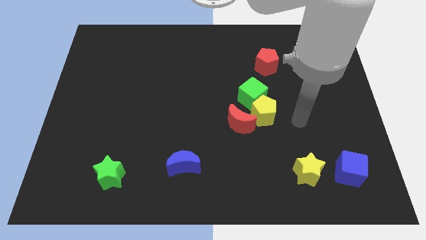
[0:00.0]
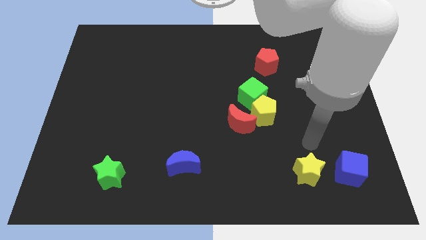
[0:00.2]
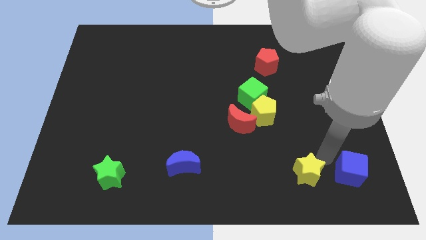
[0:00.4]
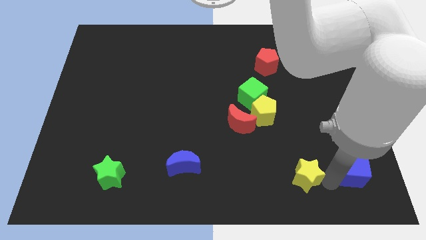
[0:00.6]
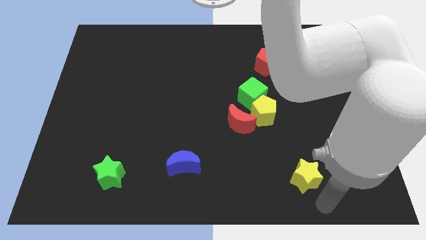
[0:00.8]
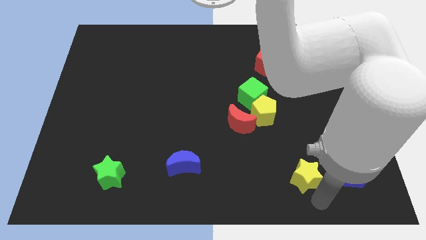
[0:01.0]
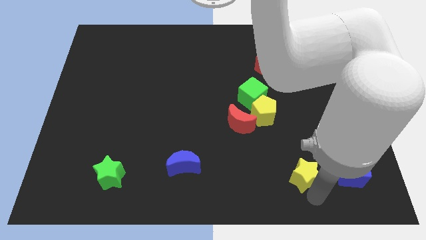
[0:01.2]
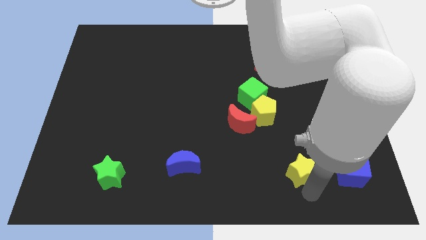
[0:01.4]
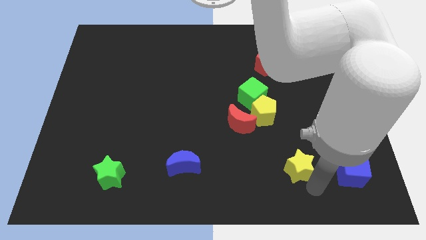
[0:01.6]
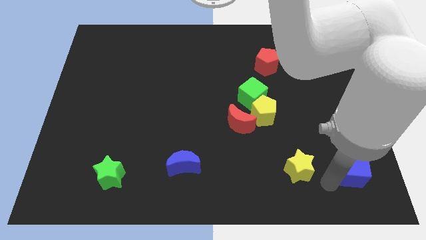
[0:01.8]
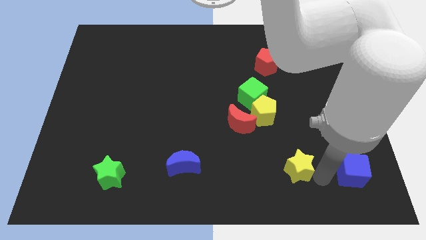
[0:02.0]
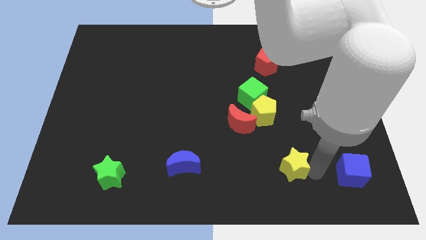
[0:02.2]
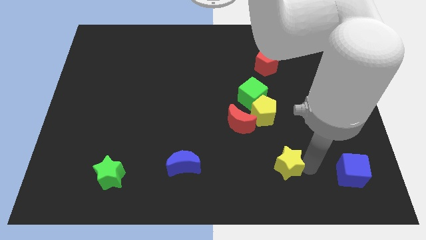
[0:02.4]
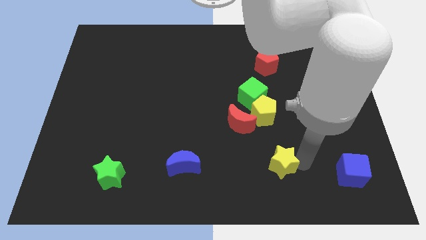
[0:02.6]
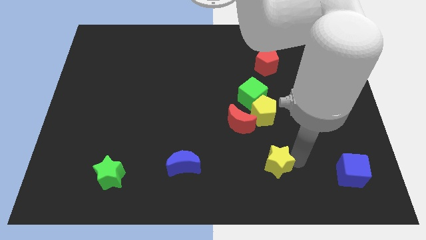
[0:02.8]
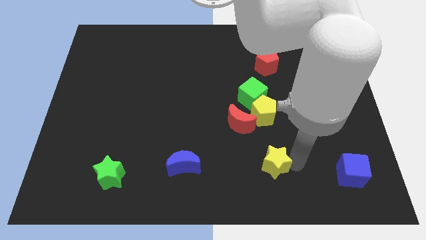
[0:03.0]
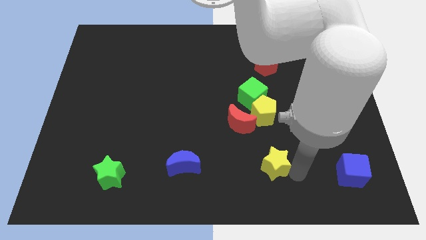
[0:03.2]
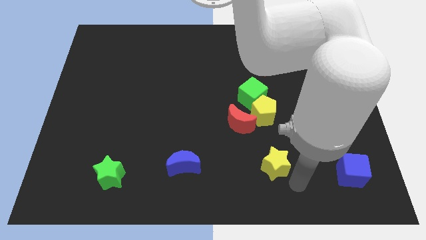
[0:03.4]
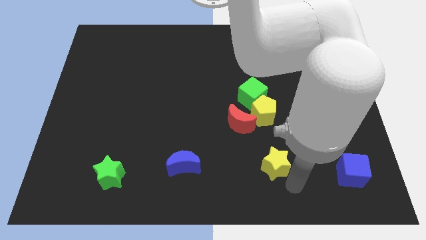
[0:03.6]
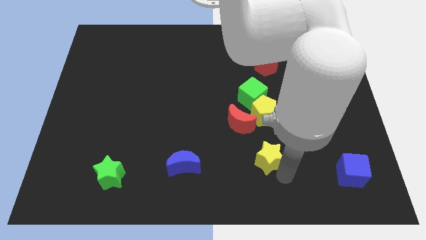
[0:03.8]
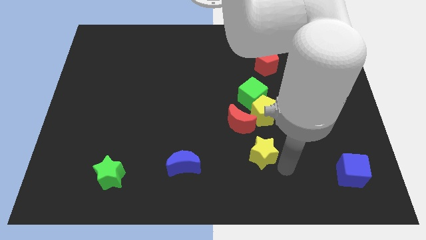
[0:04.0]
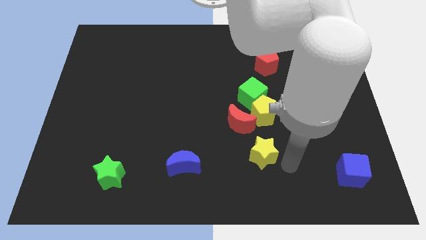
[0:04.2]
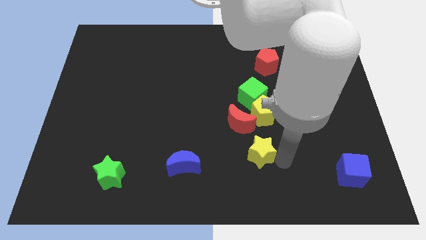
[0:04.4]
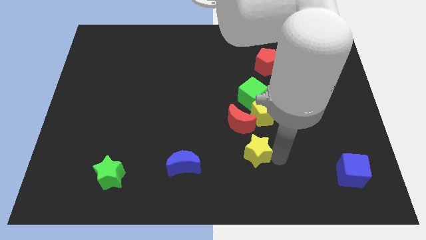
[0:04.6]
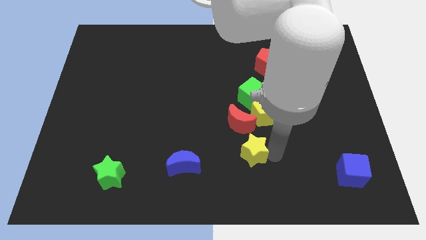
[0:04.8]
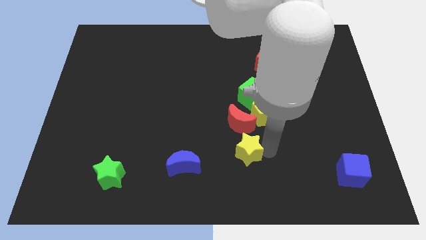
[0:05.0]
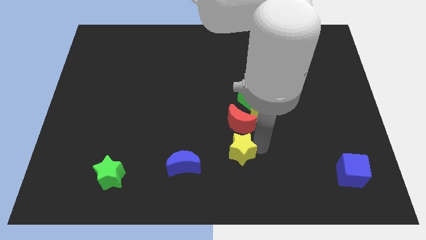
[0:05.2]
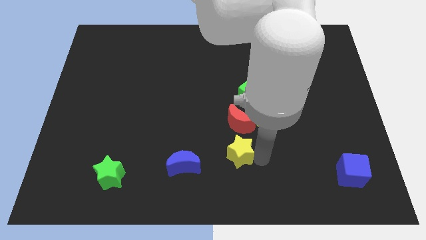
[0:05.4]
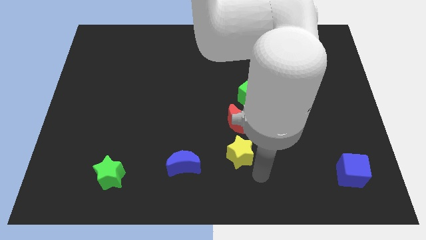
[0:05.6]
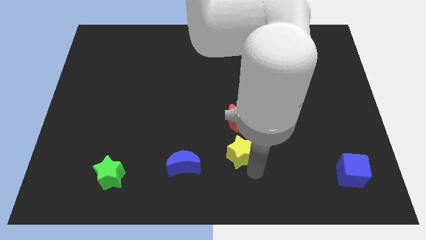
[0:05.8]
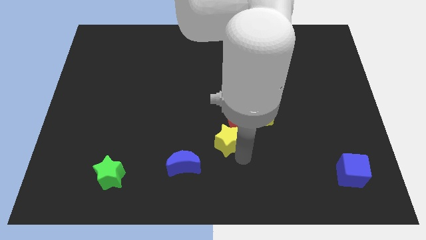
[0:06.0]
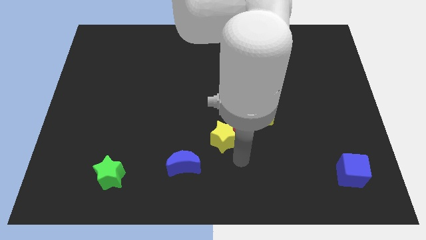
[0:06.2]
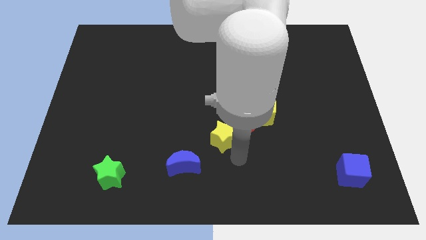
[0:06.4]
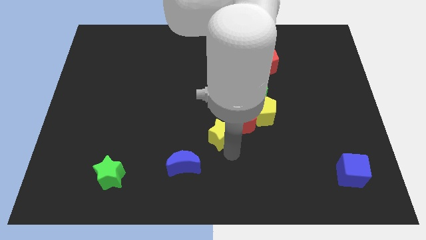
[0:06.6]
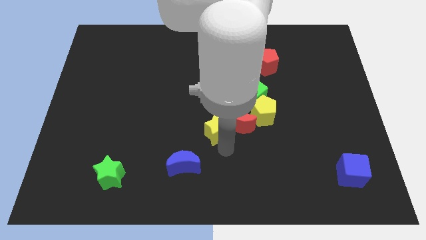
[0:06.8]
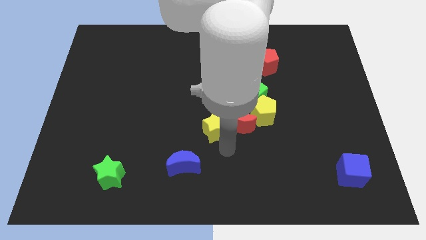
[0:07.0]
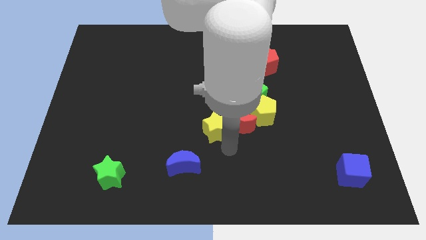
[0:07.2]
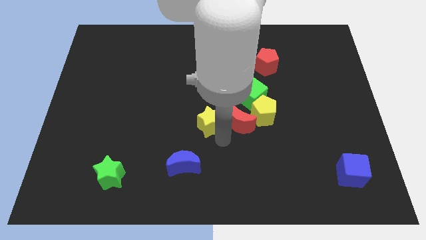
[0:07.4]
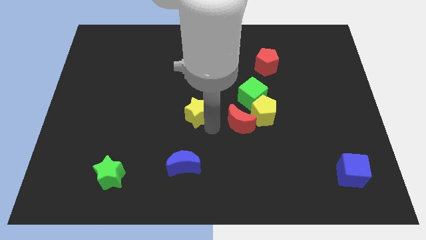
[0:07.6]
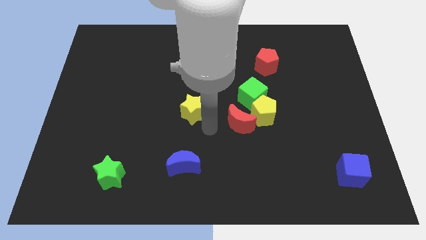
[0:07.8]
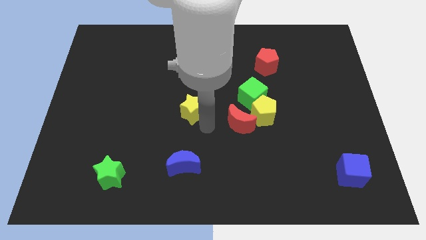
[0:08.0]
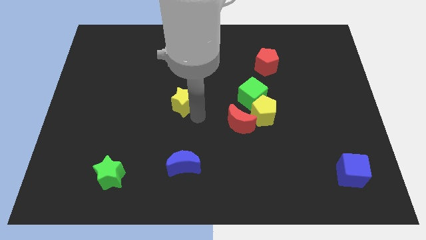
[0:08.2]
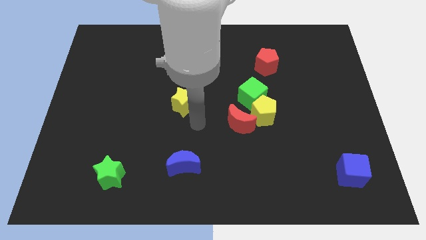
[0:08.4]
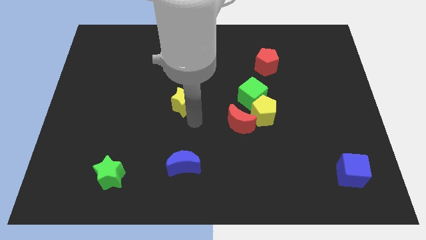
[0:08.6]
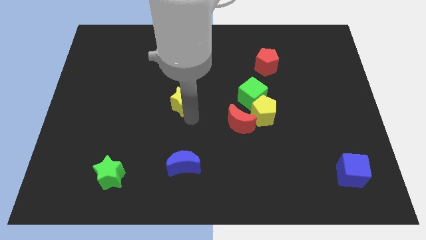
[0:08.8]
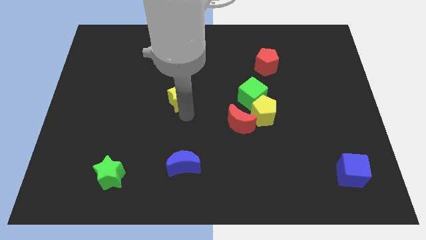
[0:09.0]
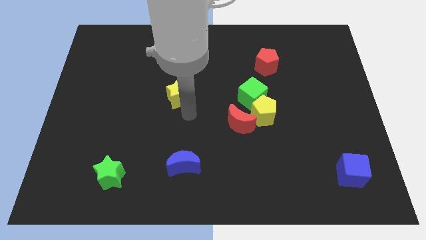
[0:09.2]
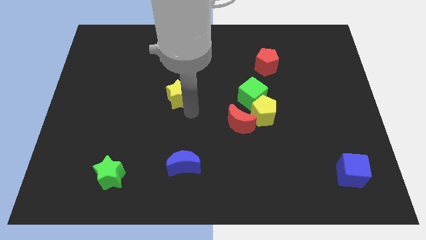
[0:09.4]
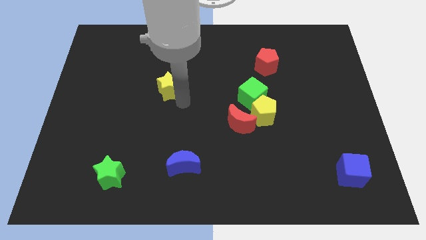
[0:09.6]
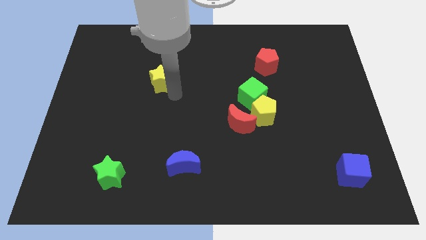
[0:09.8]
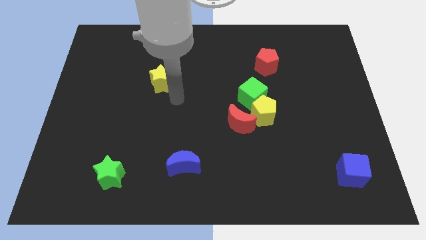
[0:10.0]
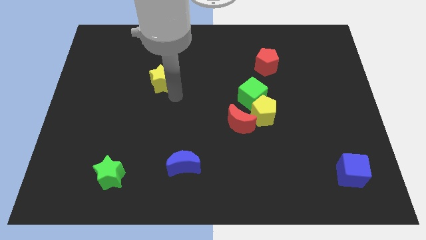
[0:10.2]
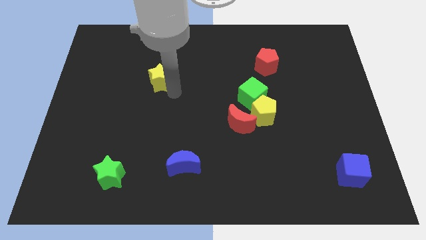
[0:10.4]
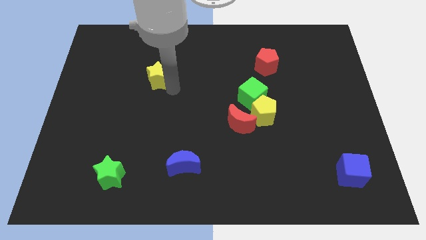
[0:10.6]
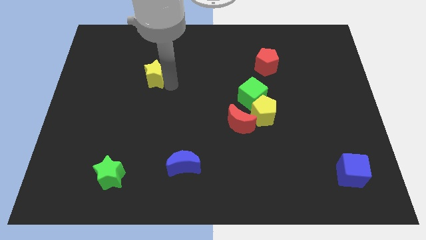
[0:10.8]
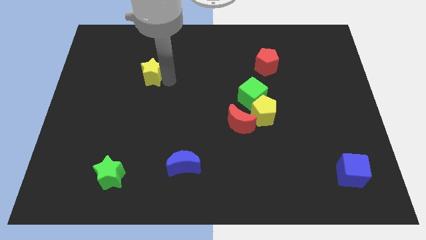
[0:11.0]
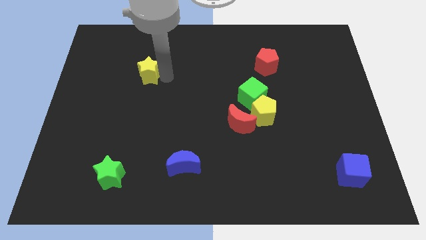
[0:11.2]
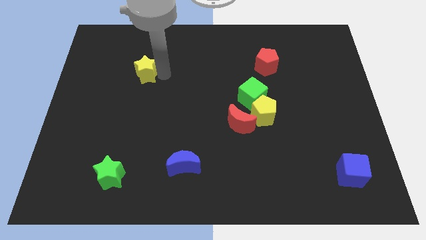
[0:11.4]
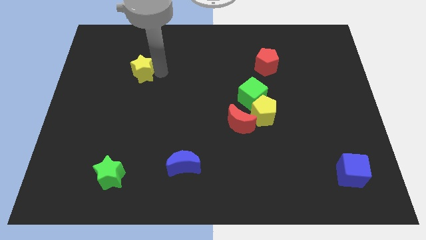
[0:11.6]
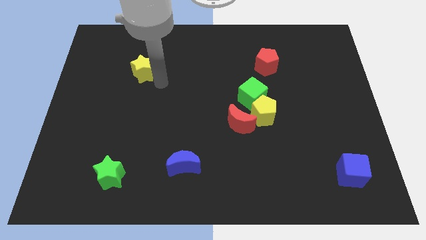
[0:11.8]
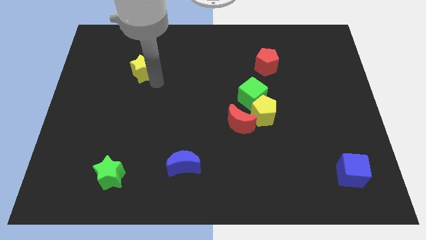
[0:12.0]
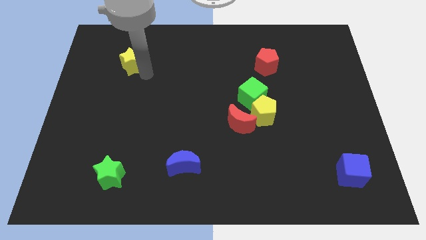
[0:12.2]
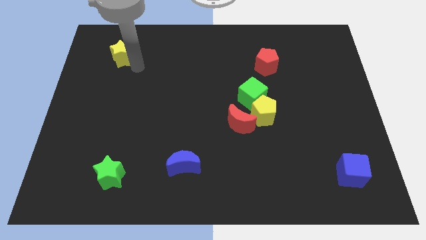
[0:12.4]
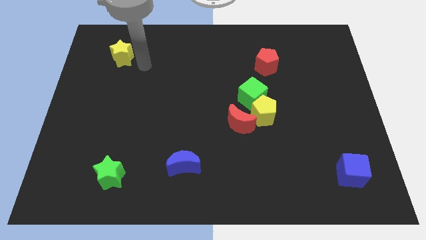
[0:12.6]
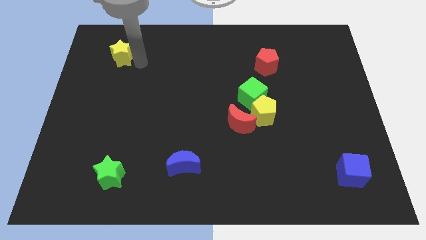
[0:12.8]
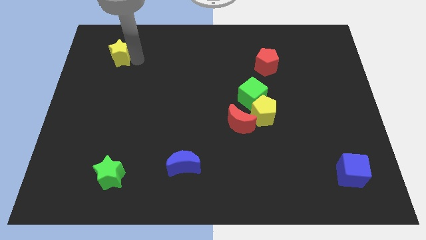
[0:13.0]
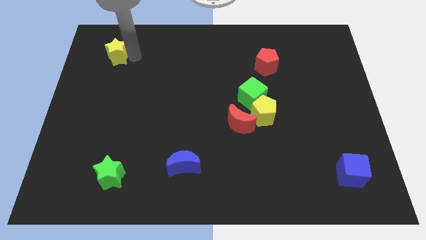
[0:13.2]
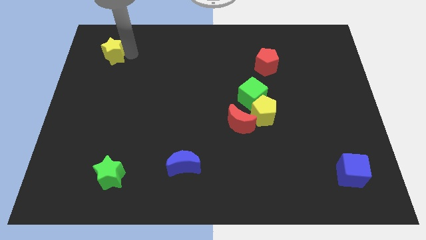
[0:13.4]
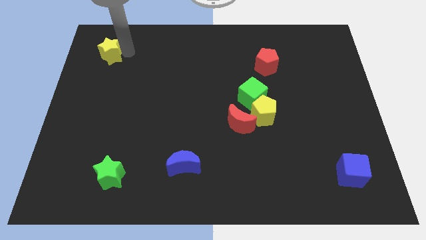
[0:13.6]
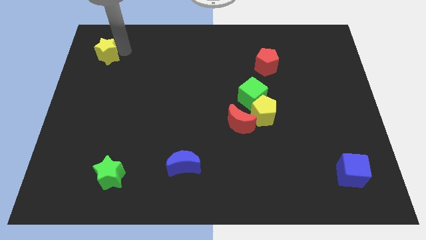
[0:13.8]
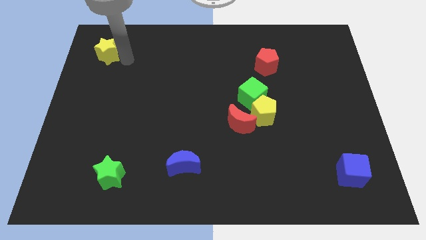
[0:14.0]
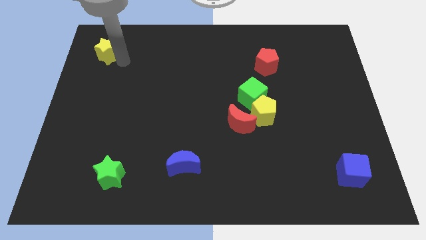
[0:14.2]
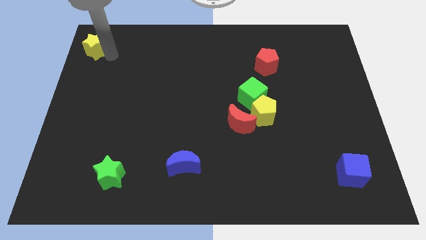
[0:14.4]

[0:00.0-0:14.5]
push the yellow star to the top left corner
